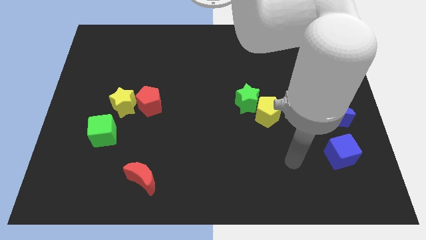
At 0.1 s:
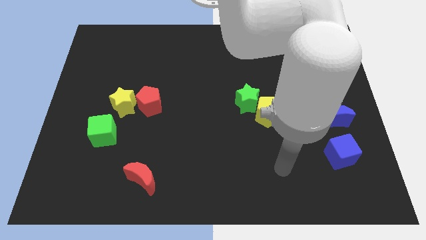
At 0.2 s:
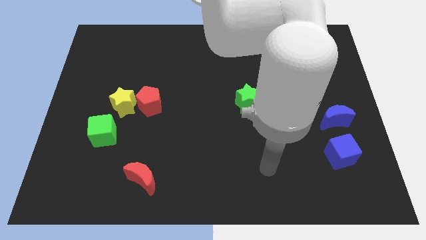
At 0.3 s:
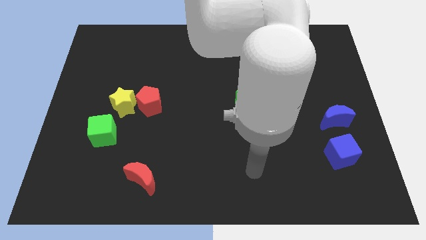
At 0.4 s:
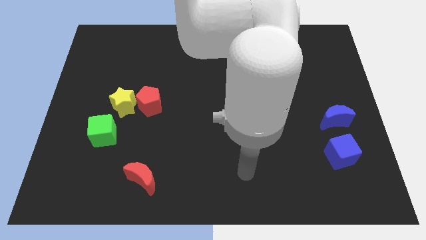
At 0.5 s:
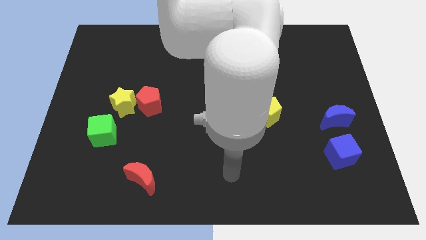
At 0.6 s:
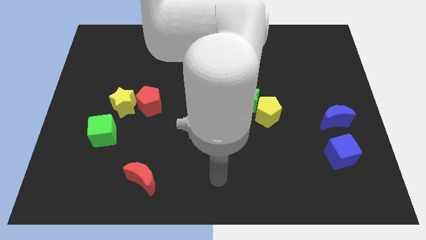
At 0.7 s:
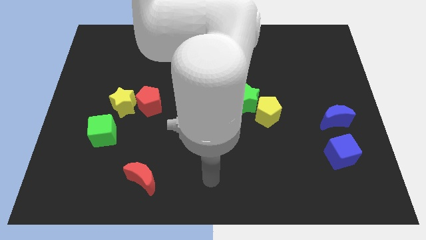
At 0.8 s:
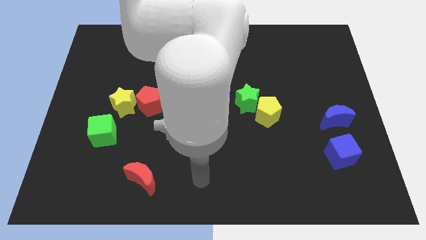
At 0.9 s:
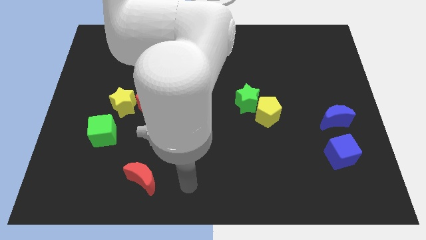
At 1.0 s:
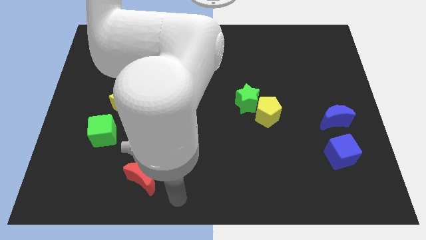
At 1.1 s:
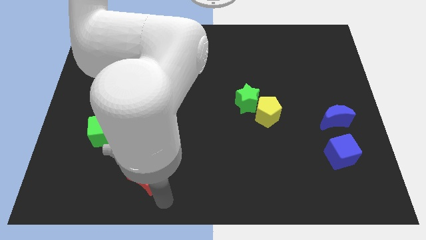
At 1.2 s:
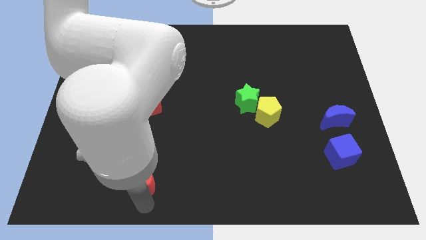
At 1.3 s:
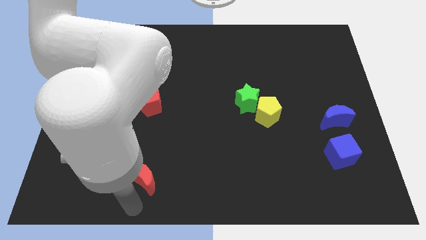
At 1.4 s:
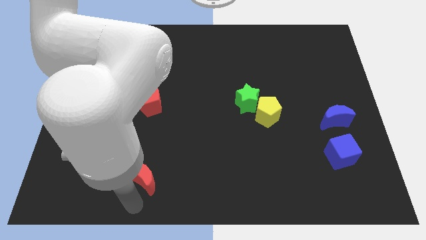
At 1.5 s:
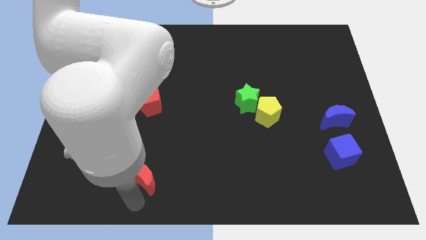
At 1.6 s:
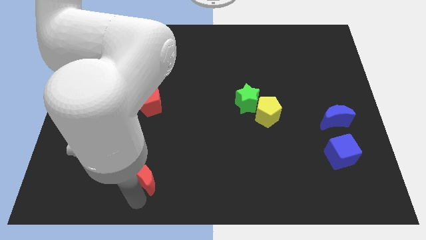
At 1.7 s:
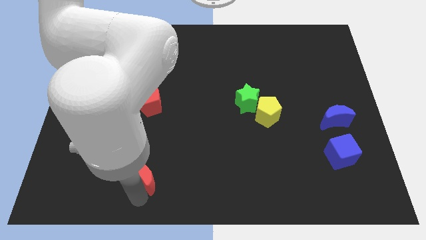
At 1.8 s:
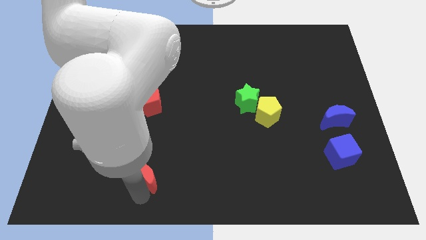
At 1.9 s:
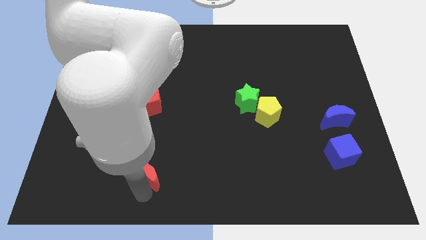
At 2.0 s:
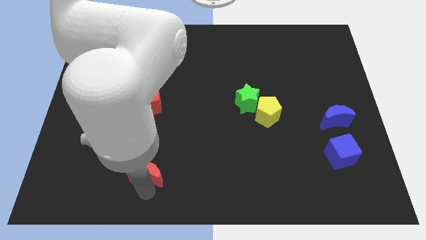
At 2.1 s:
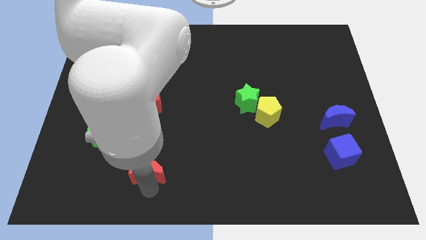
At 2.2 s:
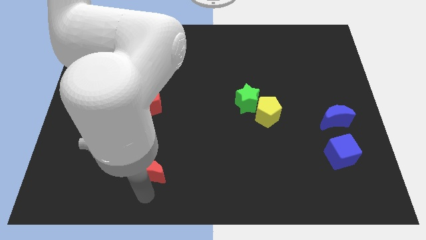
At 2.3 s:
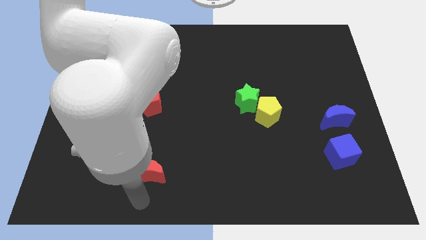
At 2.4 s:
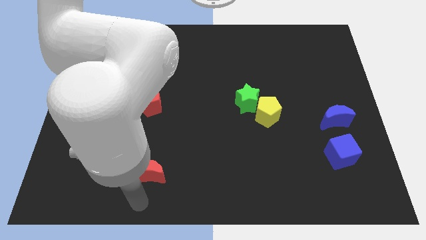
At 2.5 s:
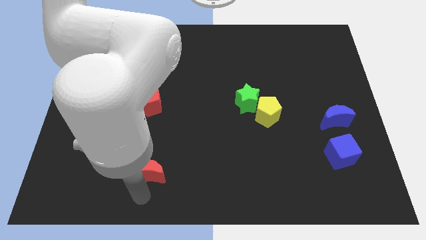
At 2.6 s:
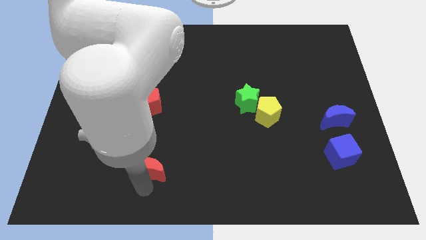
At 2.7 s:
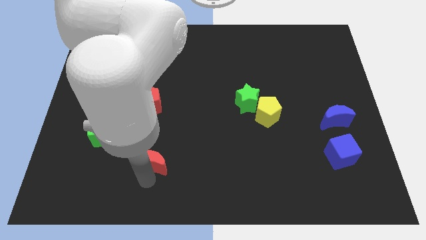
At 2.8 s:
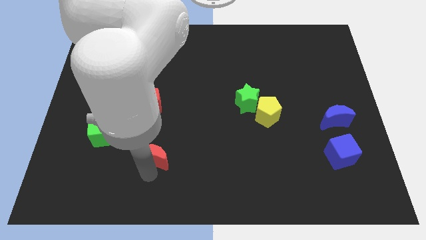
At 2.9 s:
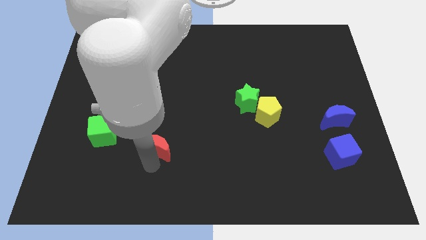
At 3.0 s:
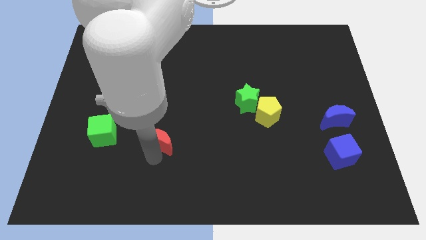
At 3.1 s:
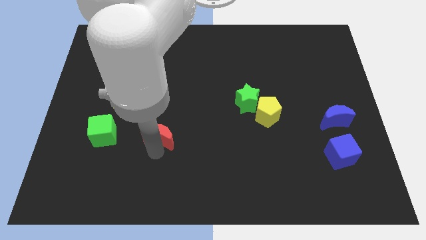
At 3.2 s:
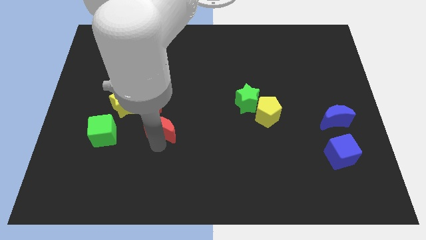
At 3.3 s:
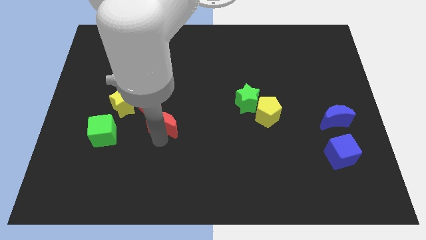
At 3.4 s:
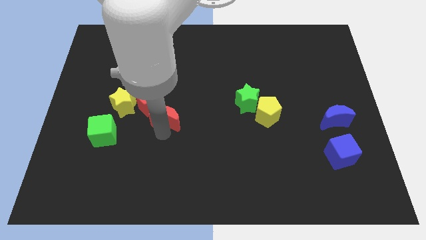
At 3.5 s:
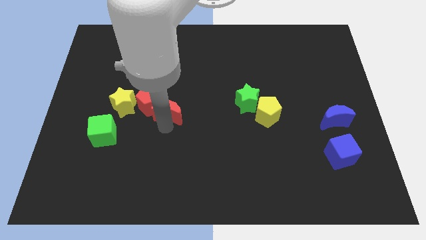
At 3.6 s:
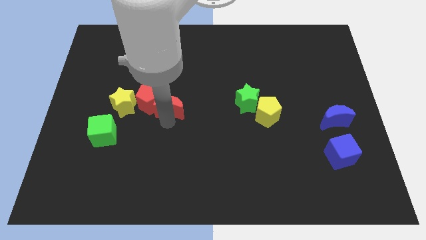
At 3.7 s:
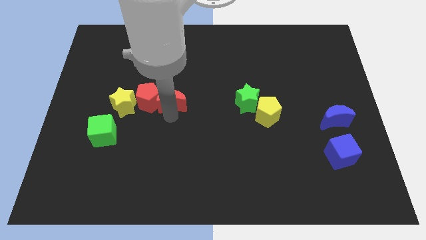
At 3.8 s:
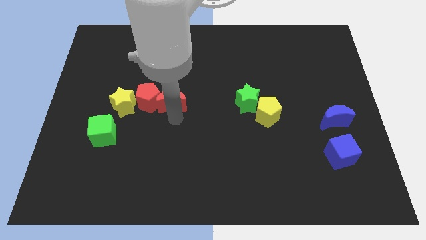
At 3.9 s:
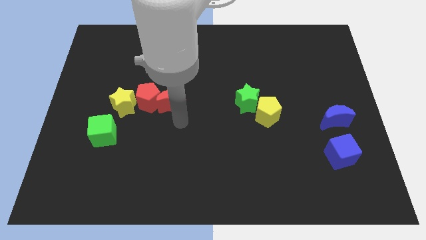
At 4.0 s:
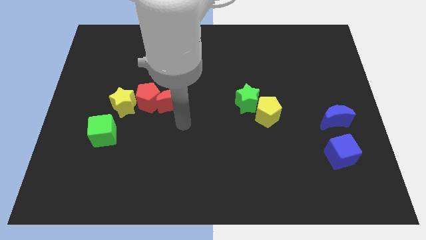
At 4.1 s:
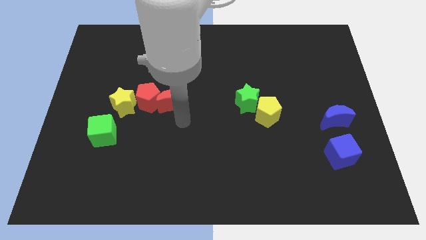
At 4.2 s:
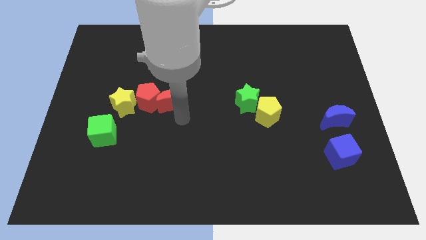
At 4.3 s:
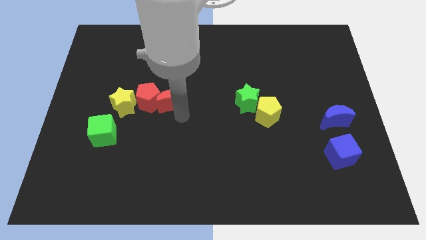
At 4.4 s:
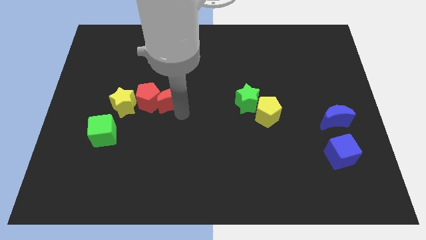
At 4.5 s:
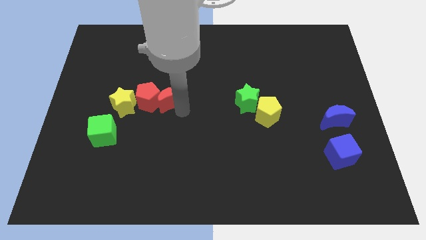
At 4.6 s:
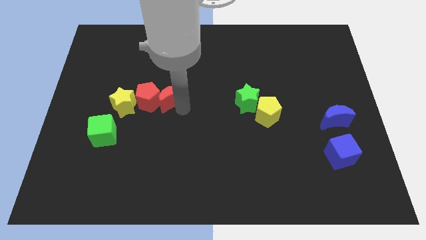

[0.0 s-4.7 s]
push the red moon up

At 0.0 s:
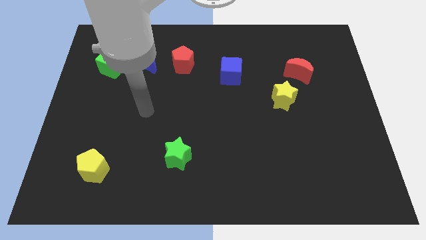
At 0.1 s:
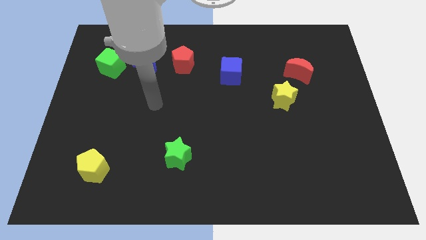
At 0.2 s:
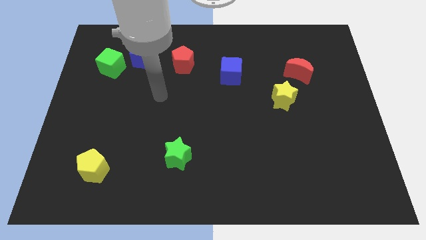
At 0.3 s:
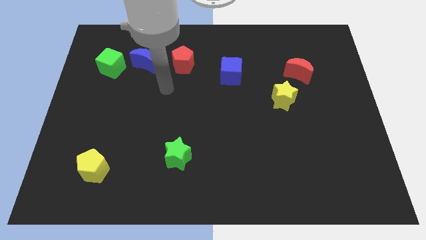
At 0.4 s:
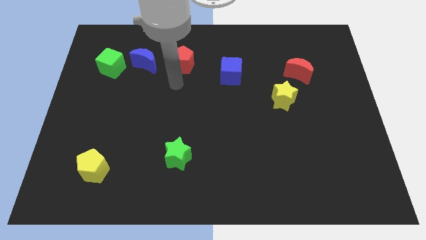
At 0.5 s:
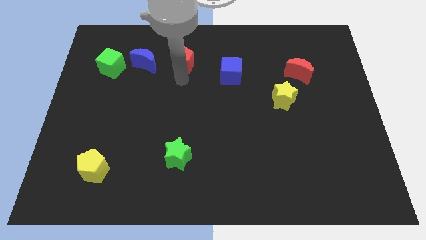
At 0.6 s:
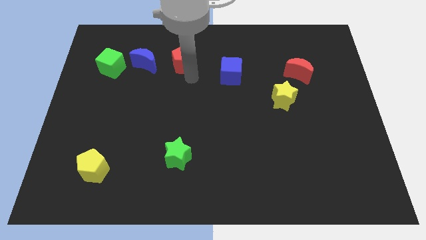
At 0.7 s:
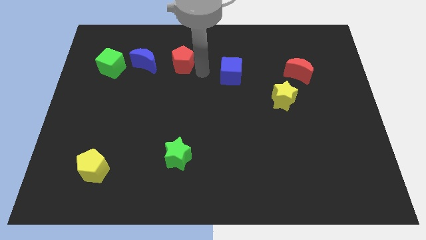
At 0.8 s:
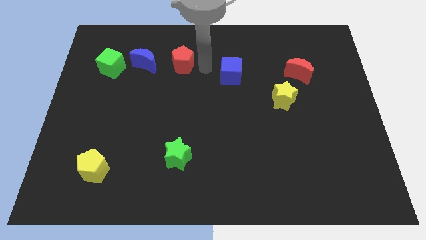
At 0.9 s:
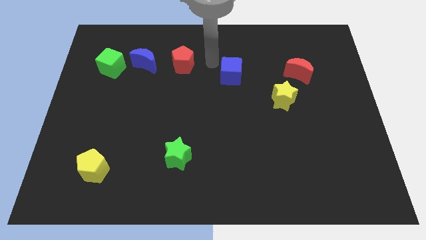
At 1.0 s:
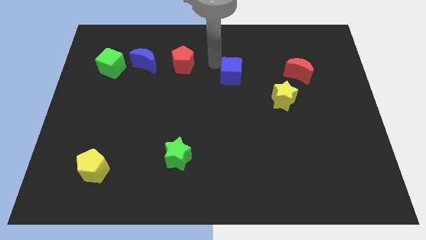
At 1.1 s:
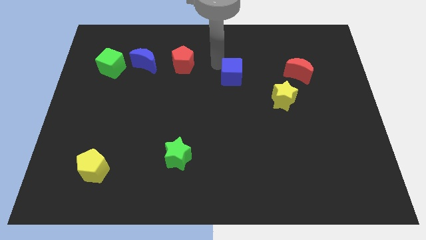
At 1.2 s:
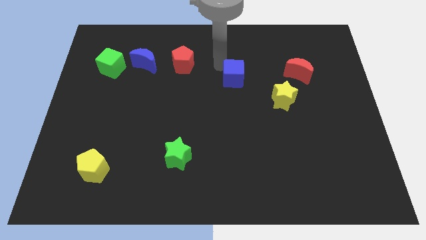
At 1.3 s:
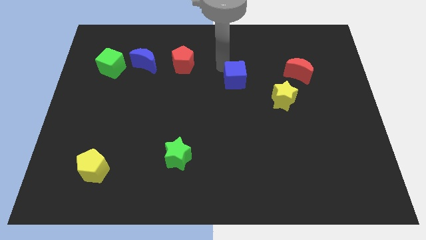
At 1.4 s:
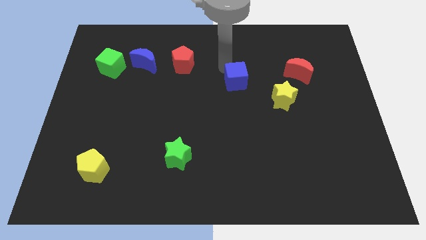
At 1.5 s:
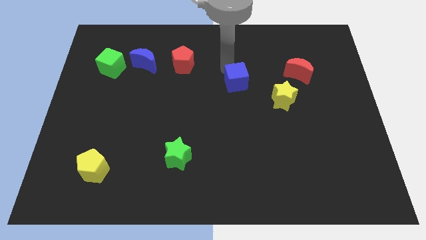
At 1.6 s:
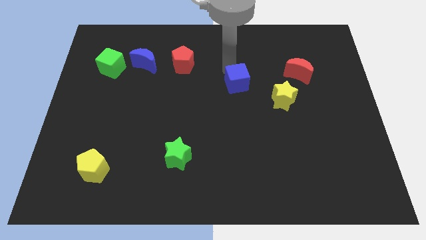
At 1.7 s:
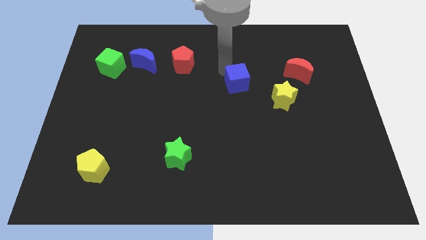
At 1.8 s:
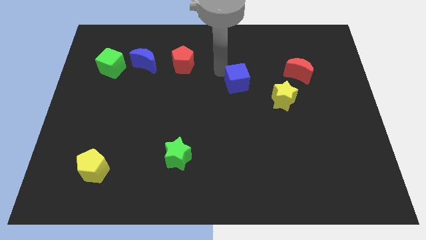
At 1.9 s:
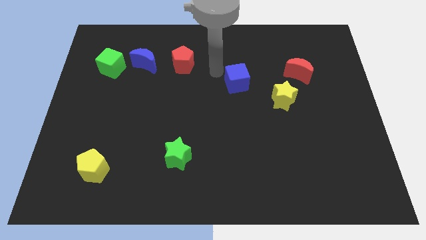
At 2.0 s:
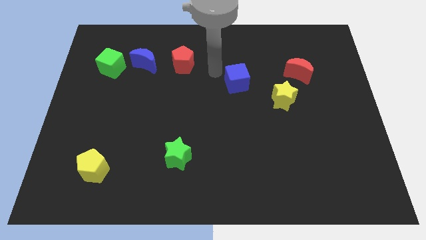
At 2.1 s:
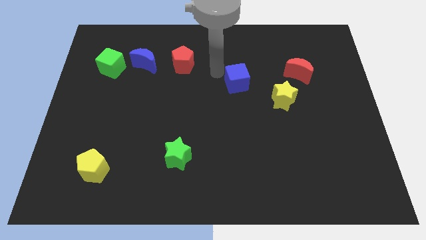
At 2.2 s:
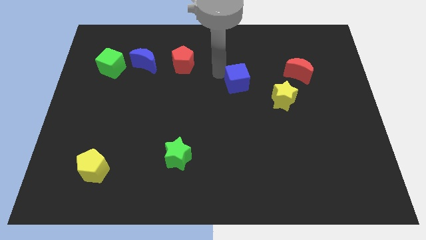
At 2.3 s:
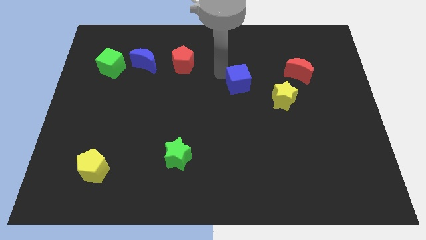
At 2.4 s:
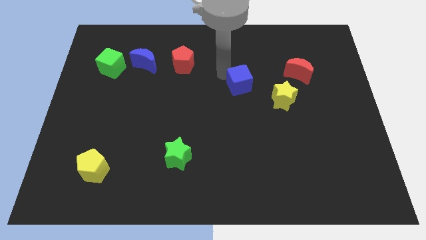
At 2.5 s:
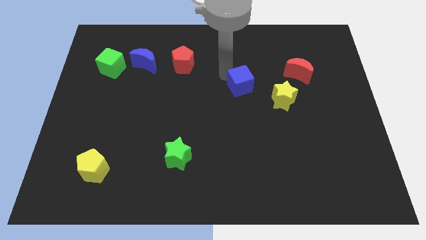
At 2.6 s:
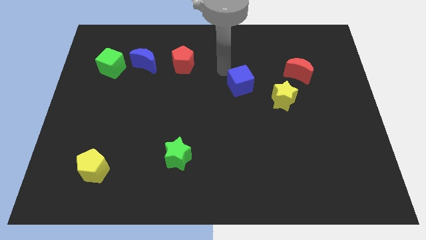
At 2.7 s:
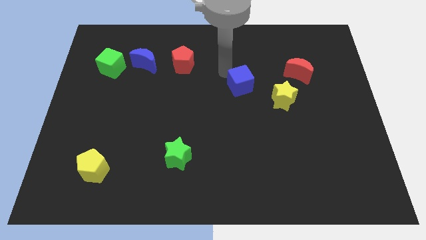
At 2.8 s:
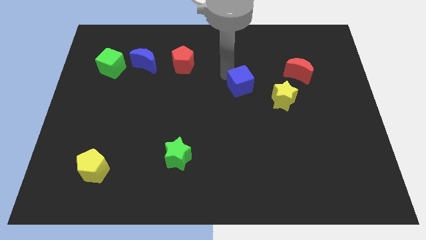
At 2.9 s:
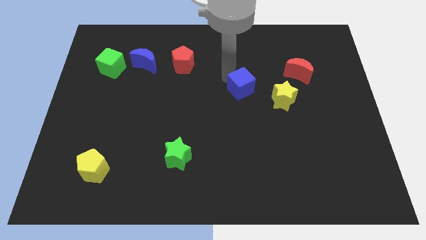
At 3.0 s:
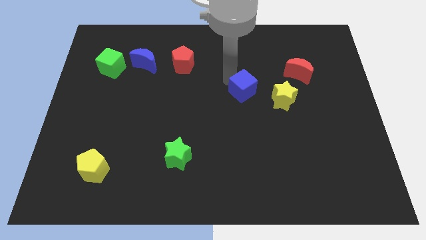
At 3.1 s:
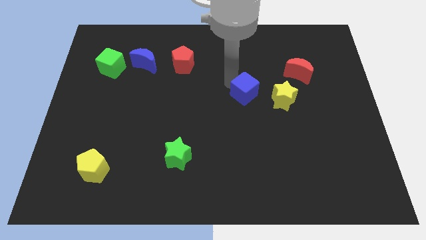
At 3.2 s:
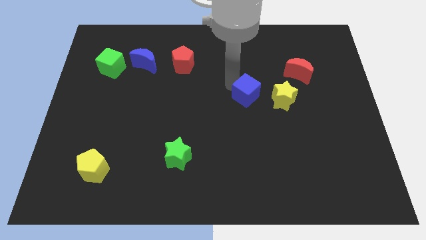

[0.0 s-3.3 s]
push the blue cube a little bit downwards and right diagonally

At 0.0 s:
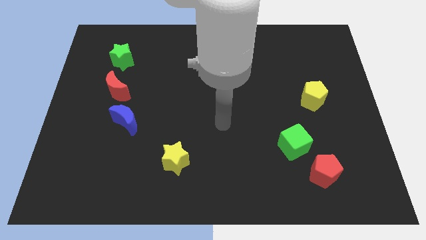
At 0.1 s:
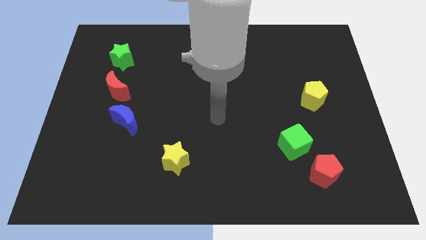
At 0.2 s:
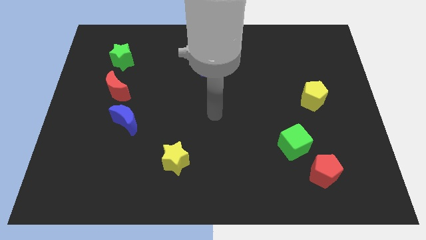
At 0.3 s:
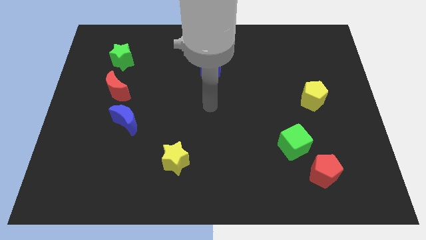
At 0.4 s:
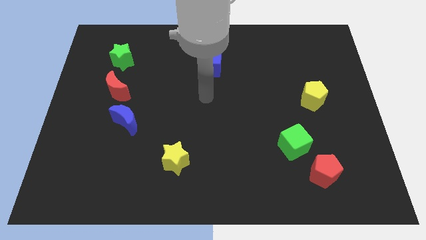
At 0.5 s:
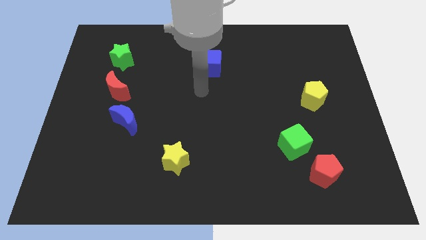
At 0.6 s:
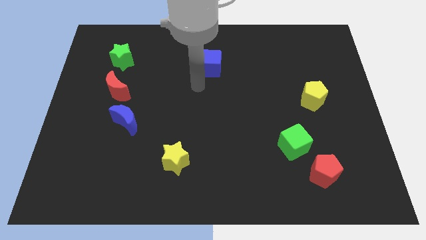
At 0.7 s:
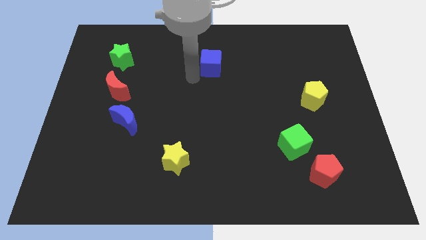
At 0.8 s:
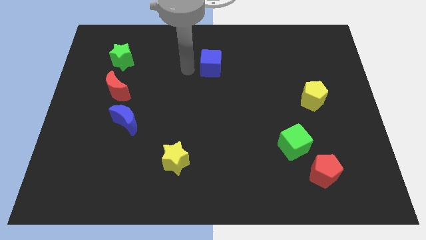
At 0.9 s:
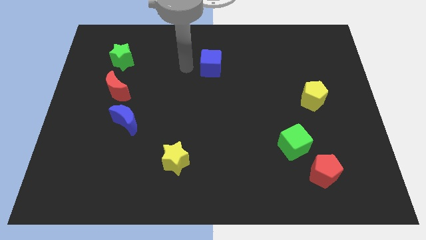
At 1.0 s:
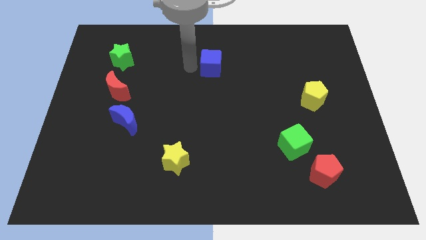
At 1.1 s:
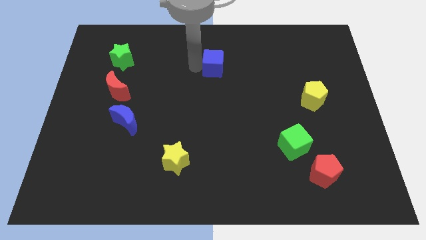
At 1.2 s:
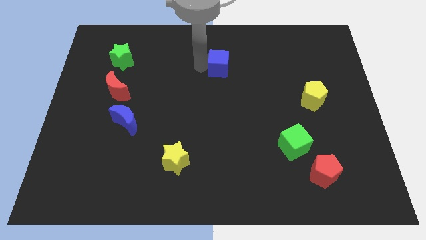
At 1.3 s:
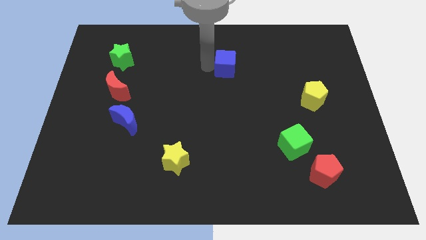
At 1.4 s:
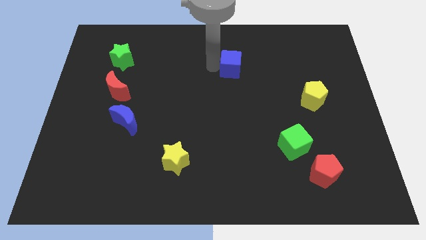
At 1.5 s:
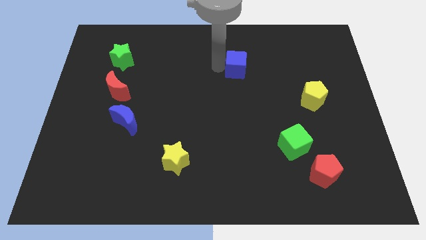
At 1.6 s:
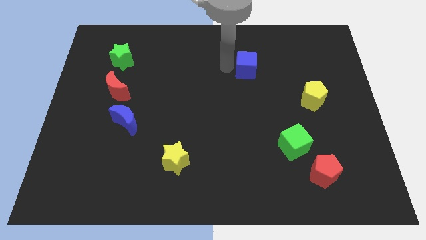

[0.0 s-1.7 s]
move the blue cube right somewhat
